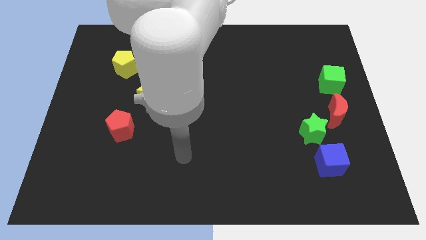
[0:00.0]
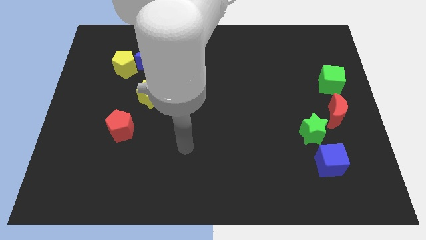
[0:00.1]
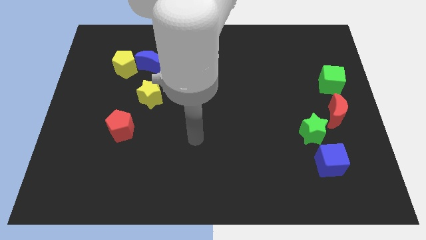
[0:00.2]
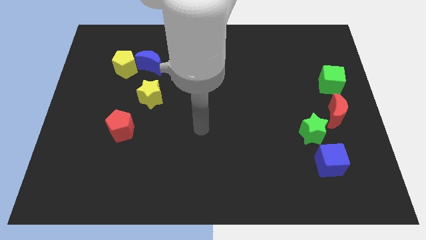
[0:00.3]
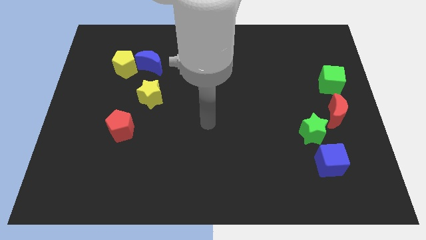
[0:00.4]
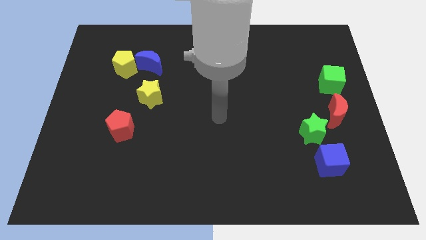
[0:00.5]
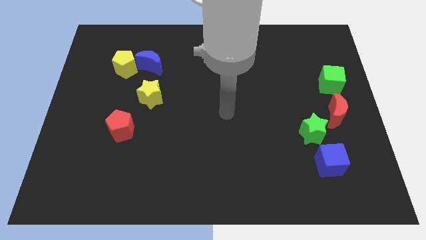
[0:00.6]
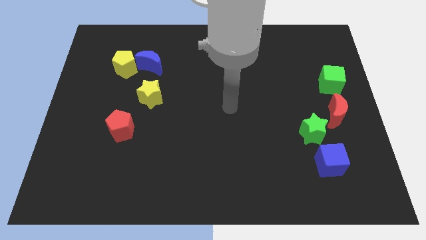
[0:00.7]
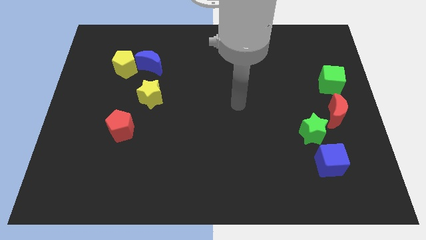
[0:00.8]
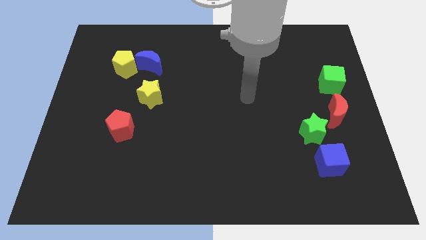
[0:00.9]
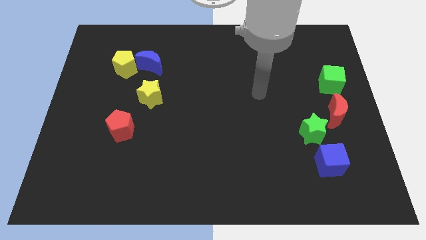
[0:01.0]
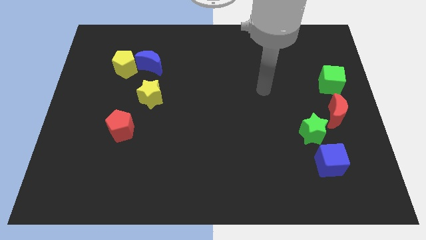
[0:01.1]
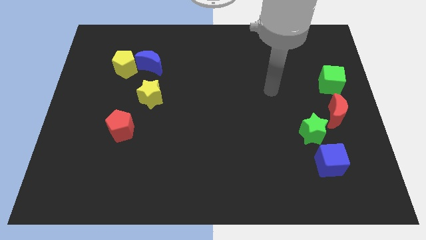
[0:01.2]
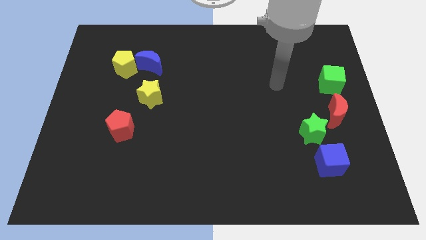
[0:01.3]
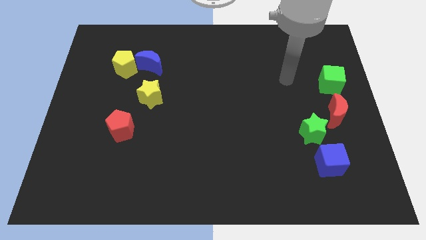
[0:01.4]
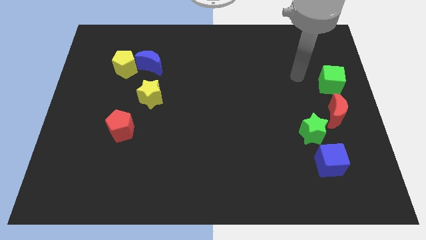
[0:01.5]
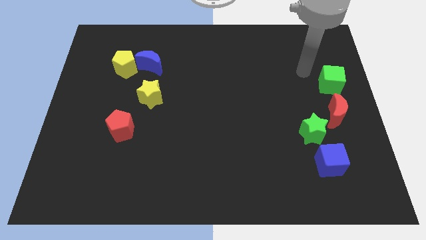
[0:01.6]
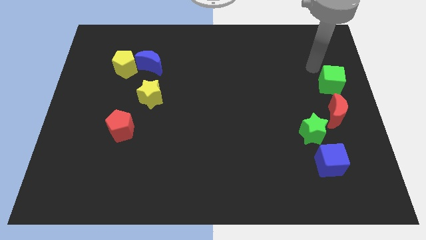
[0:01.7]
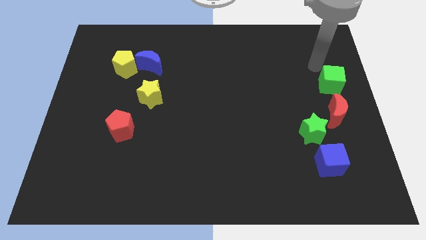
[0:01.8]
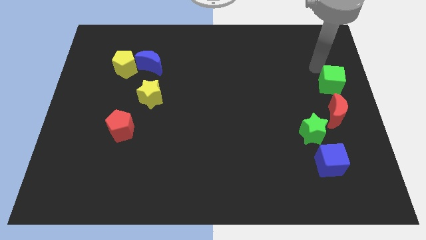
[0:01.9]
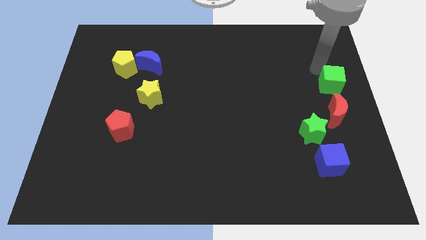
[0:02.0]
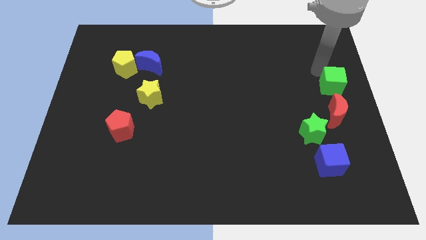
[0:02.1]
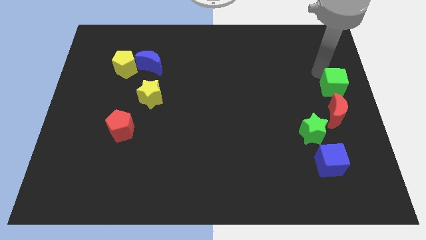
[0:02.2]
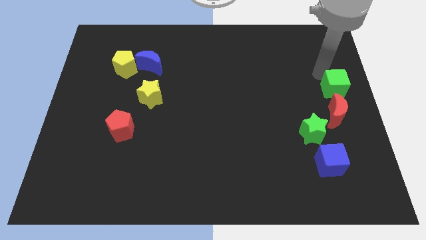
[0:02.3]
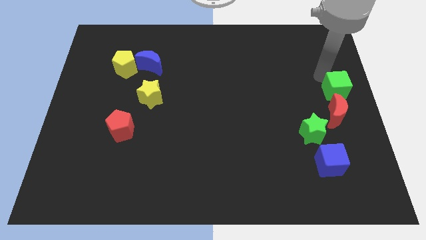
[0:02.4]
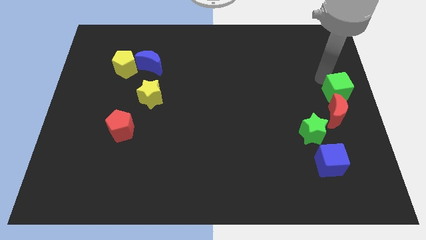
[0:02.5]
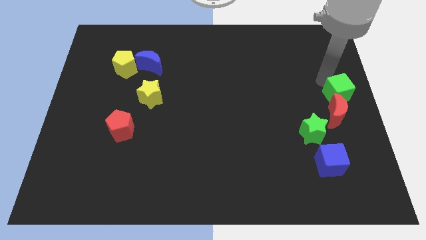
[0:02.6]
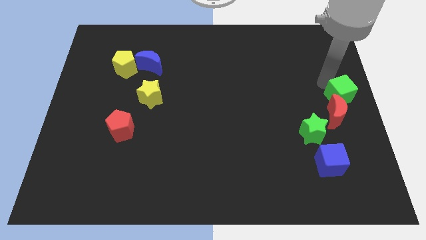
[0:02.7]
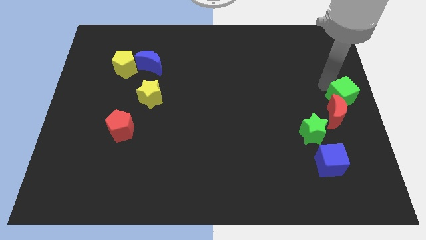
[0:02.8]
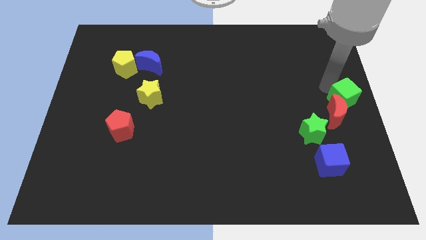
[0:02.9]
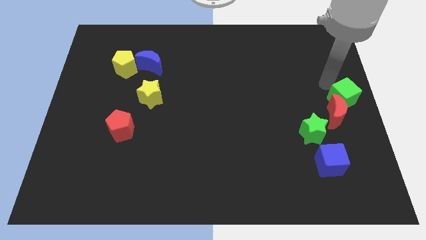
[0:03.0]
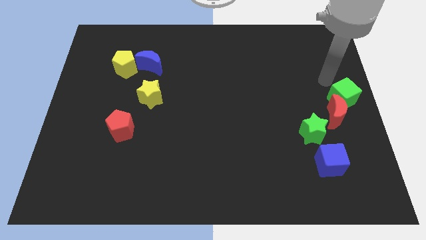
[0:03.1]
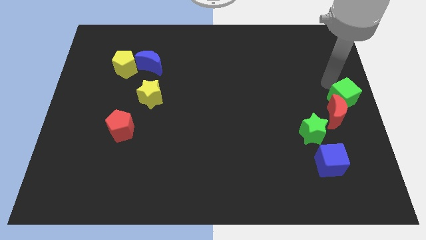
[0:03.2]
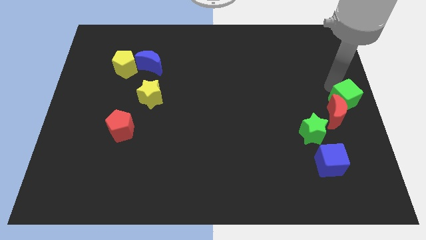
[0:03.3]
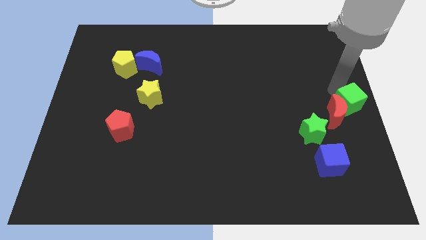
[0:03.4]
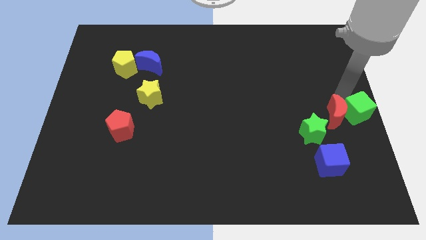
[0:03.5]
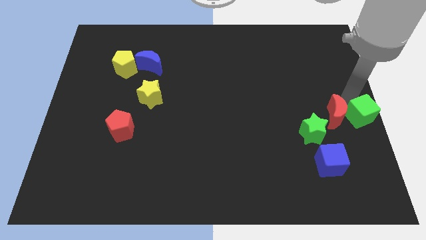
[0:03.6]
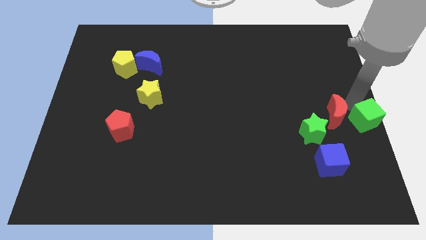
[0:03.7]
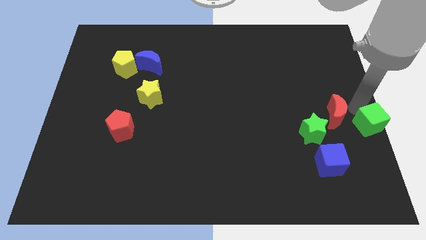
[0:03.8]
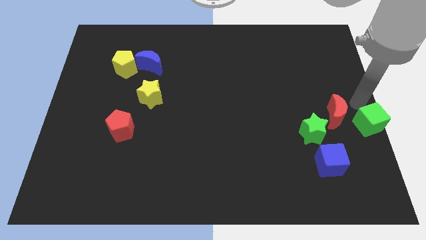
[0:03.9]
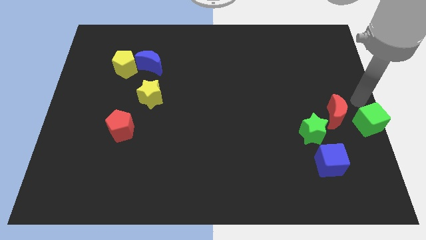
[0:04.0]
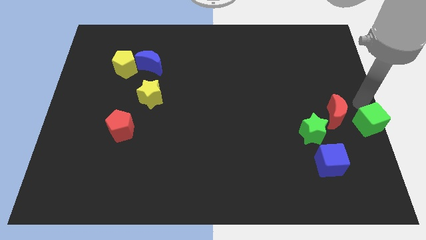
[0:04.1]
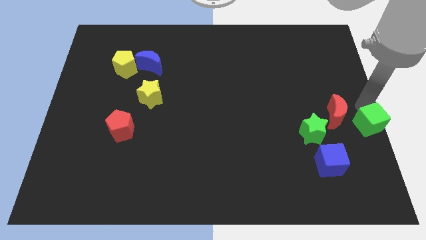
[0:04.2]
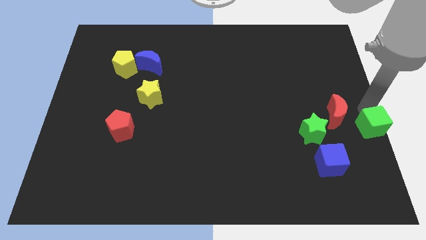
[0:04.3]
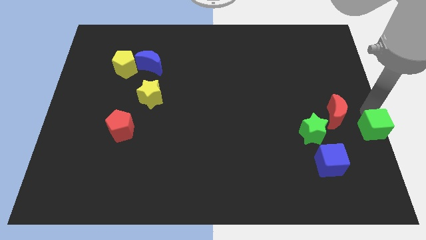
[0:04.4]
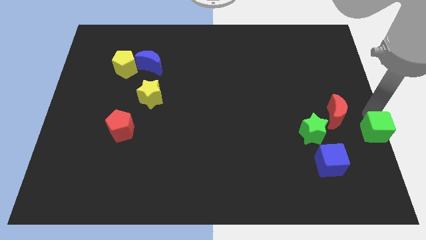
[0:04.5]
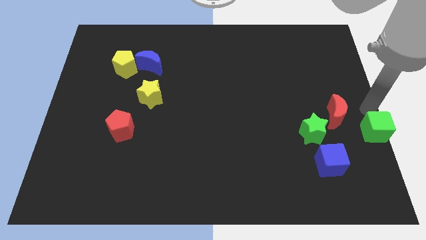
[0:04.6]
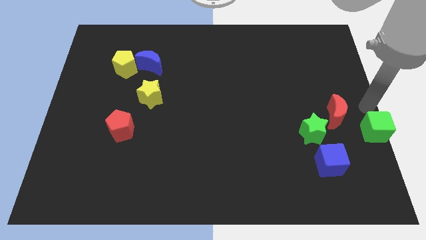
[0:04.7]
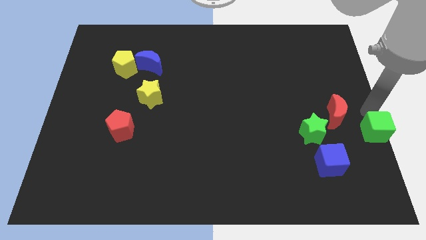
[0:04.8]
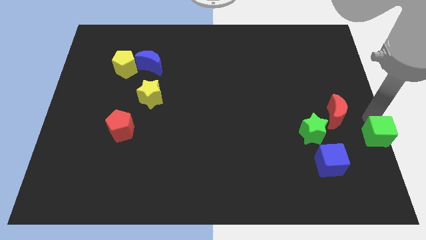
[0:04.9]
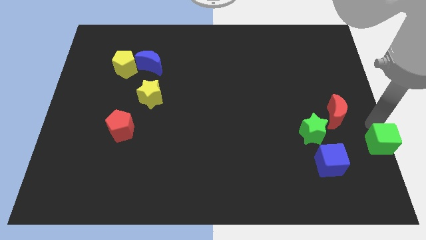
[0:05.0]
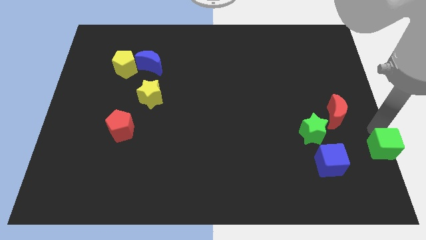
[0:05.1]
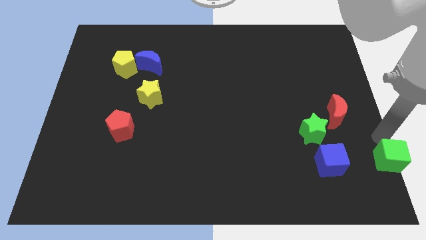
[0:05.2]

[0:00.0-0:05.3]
push the green cube to the lower right corner

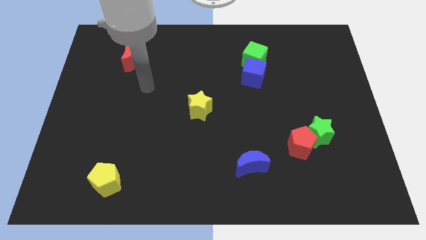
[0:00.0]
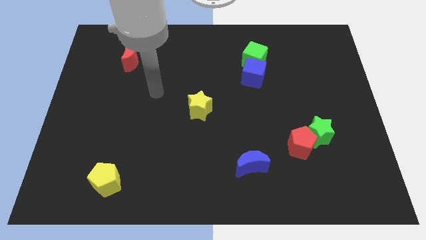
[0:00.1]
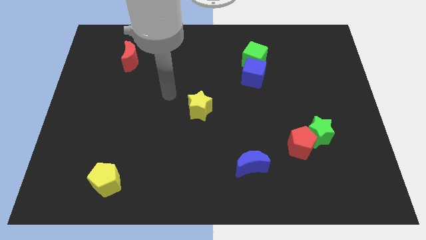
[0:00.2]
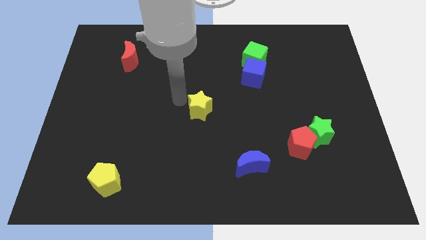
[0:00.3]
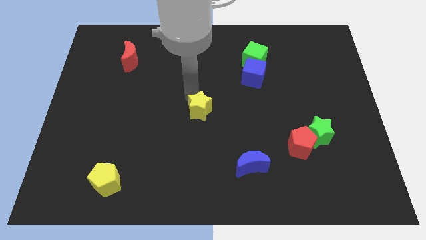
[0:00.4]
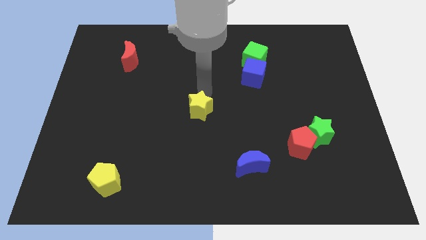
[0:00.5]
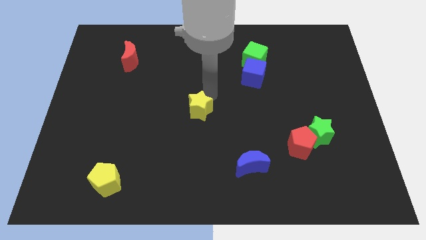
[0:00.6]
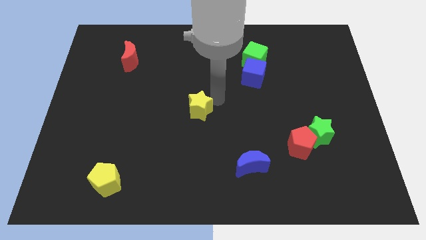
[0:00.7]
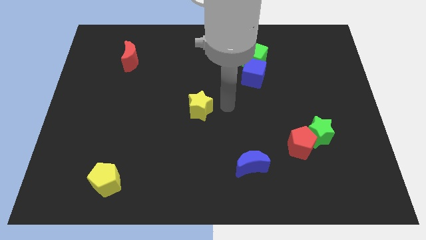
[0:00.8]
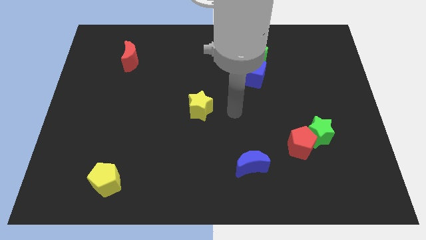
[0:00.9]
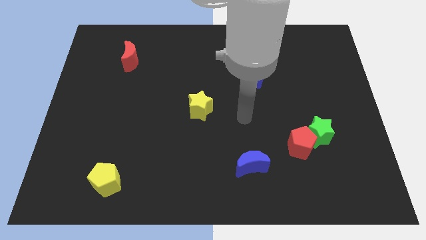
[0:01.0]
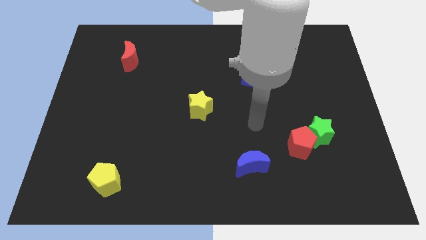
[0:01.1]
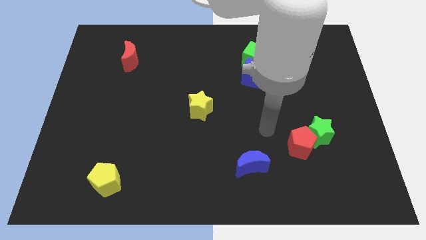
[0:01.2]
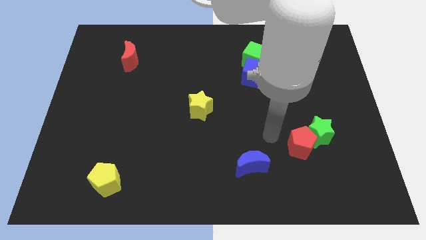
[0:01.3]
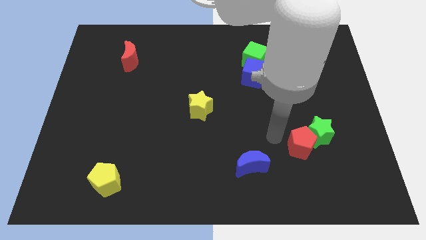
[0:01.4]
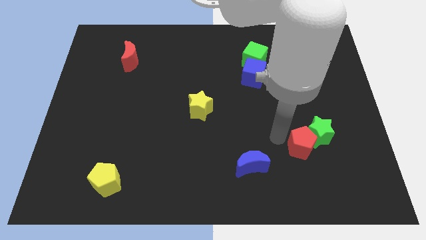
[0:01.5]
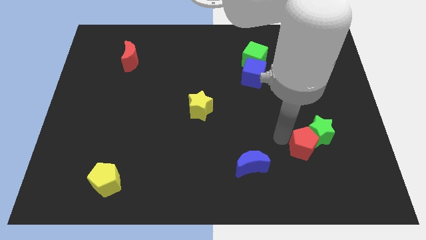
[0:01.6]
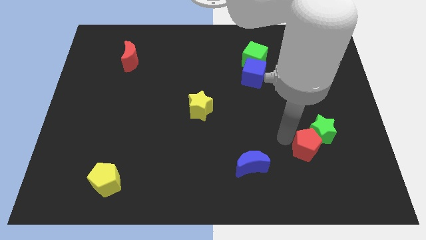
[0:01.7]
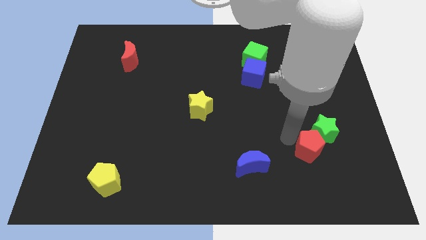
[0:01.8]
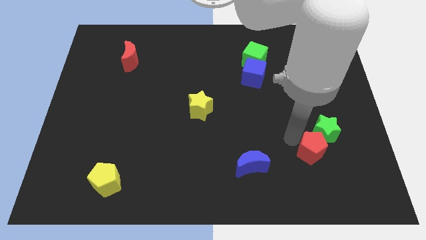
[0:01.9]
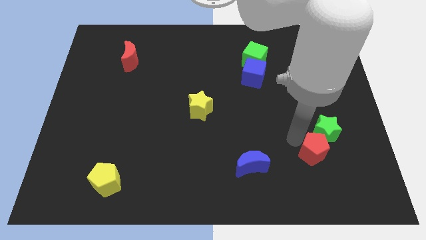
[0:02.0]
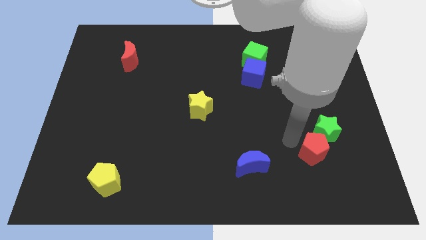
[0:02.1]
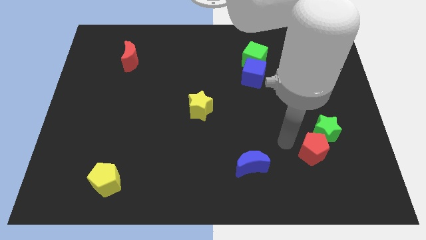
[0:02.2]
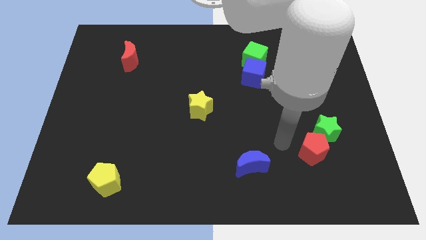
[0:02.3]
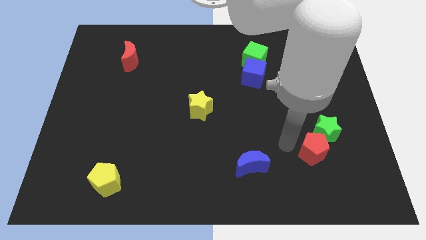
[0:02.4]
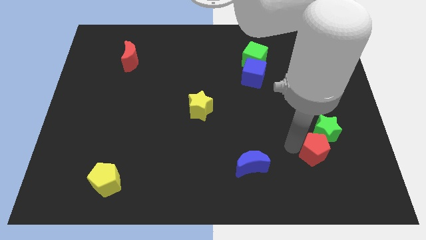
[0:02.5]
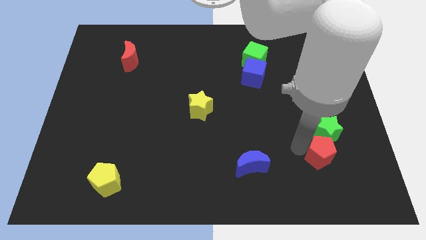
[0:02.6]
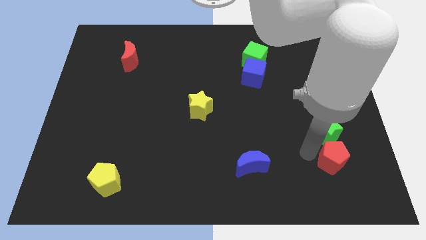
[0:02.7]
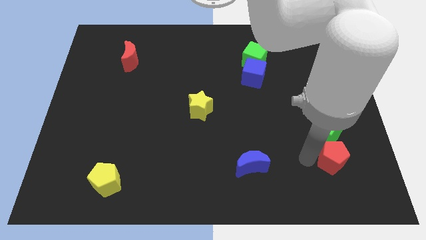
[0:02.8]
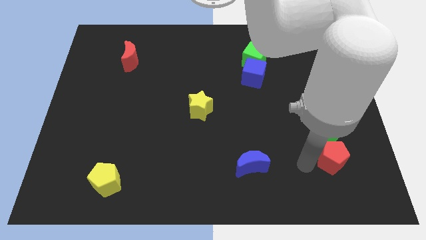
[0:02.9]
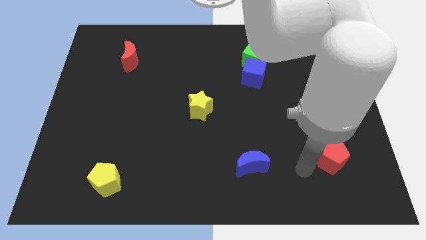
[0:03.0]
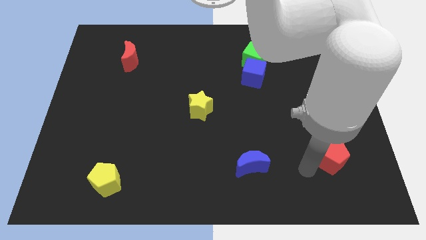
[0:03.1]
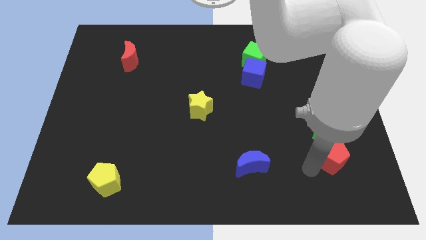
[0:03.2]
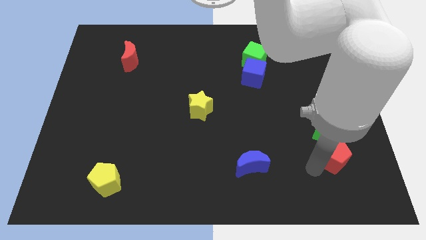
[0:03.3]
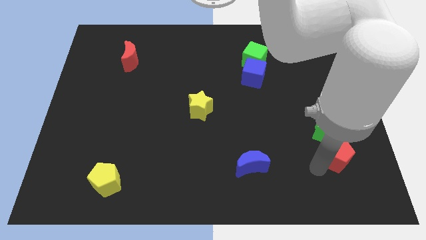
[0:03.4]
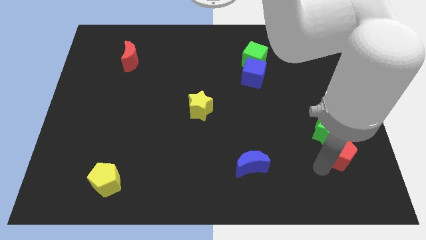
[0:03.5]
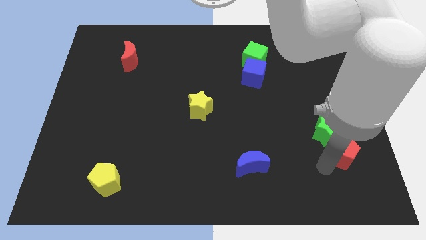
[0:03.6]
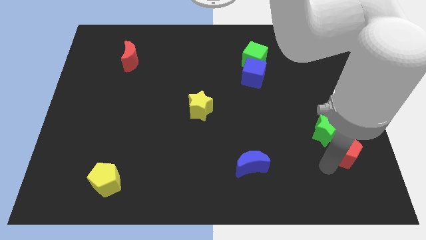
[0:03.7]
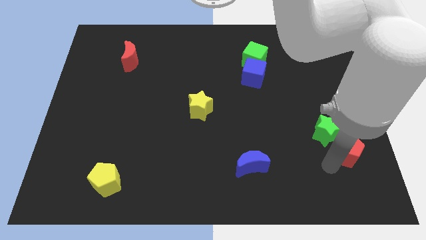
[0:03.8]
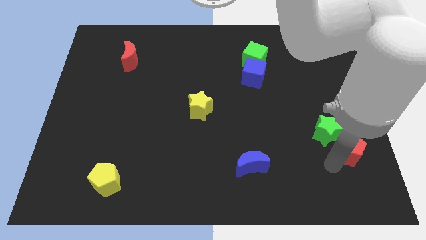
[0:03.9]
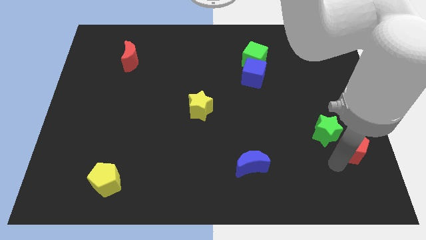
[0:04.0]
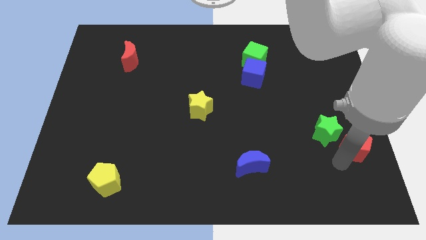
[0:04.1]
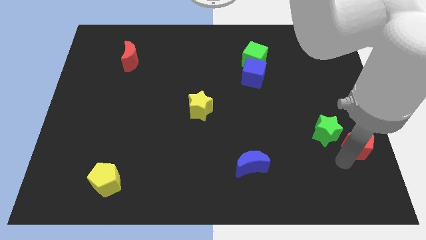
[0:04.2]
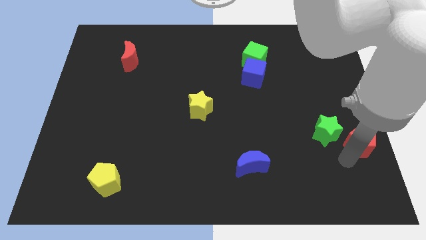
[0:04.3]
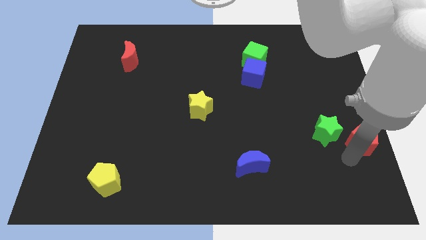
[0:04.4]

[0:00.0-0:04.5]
put the red pentagon to the center right
